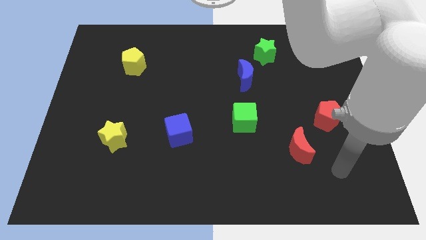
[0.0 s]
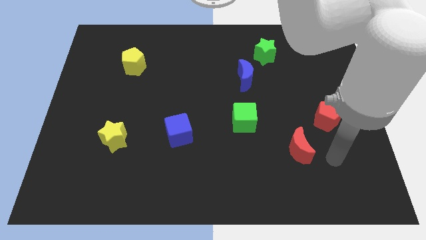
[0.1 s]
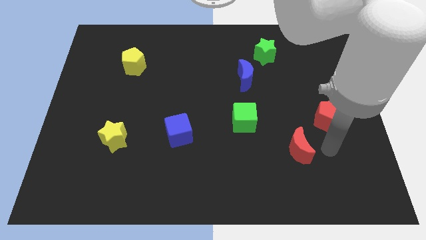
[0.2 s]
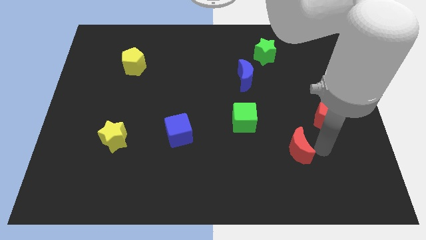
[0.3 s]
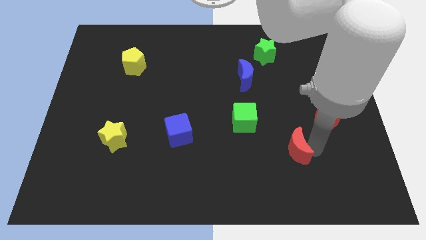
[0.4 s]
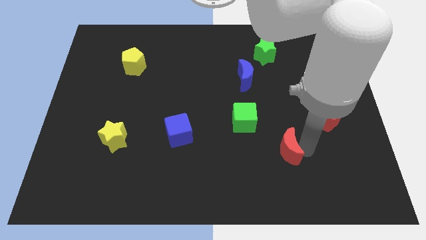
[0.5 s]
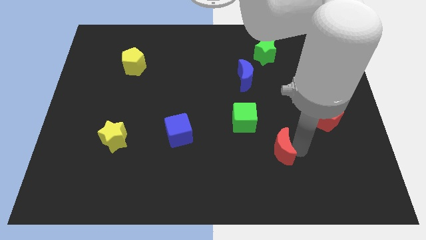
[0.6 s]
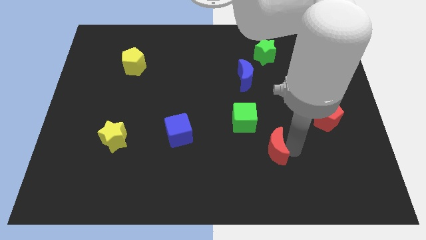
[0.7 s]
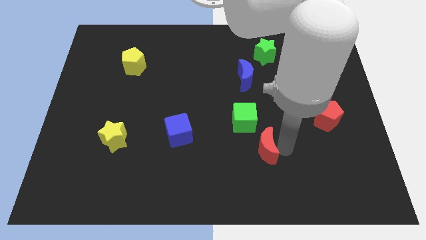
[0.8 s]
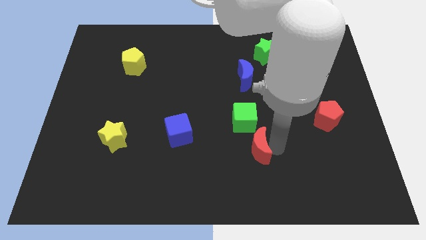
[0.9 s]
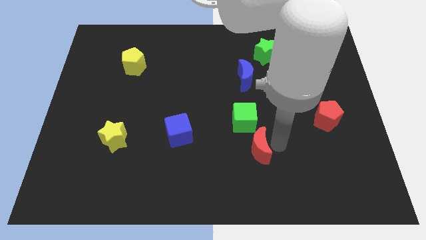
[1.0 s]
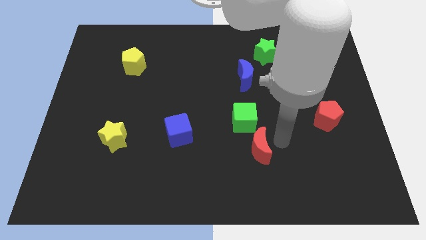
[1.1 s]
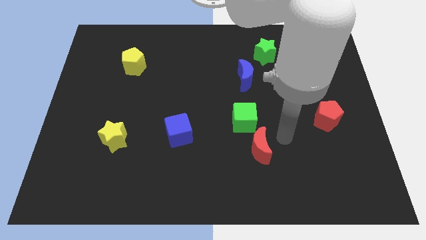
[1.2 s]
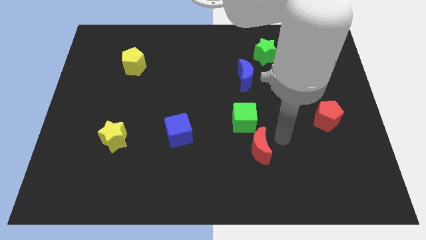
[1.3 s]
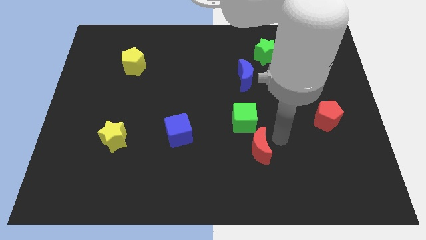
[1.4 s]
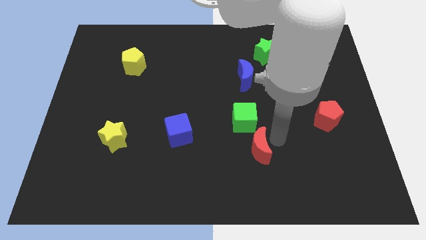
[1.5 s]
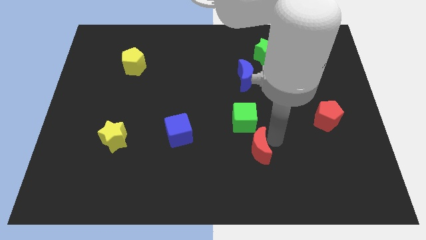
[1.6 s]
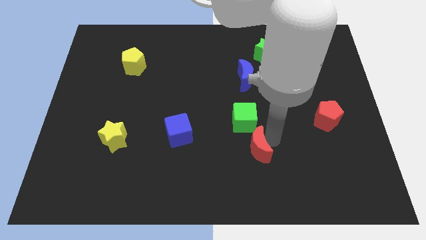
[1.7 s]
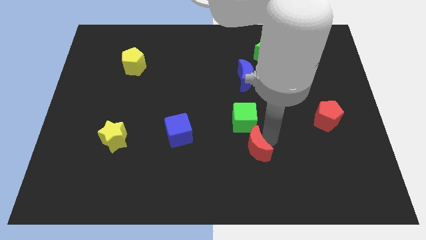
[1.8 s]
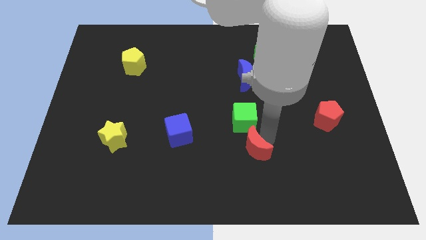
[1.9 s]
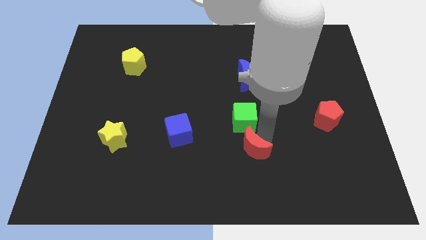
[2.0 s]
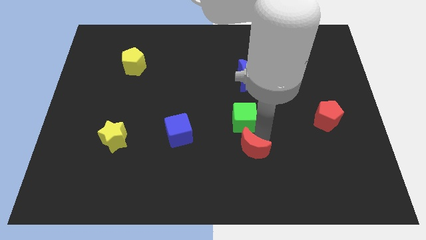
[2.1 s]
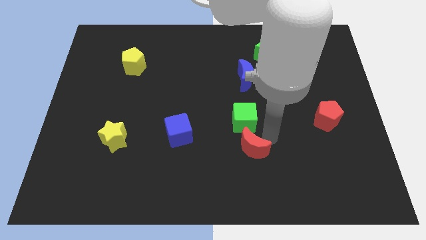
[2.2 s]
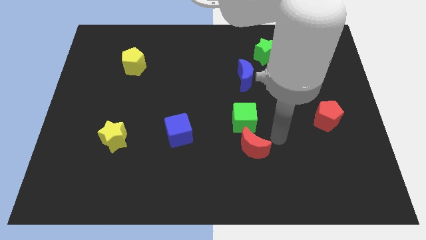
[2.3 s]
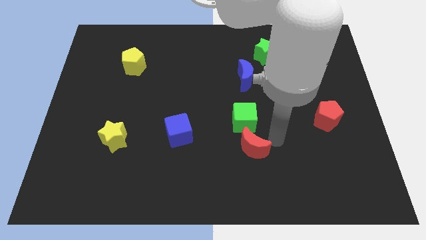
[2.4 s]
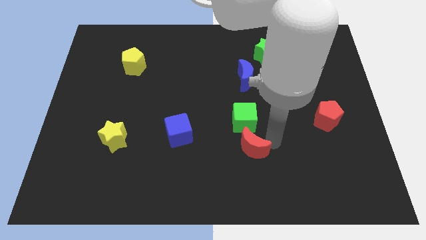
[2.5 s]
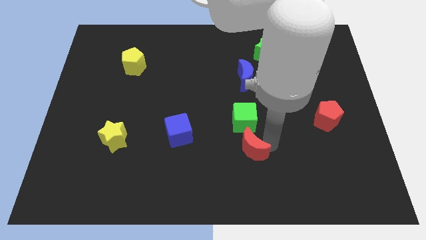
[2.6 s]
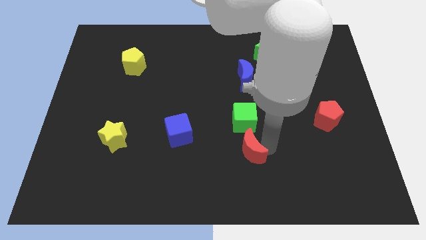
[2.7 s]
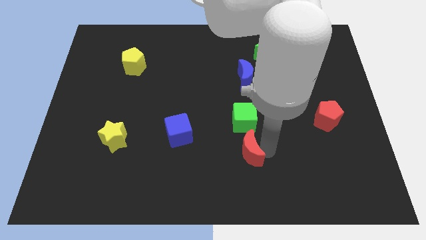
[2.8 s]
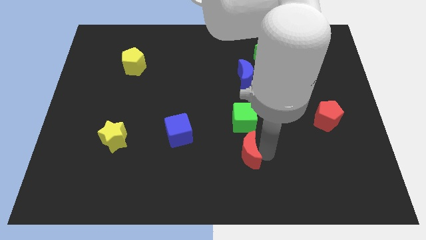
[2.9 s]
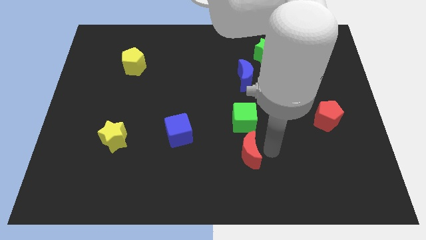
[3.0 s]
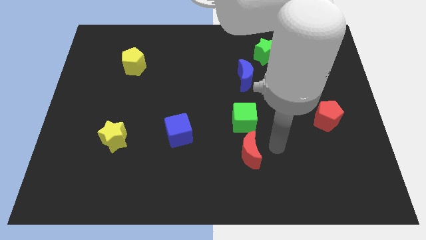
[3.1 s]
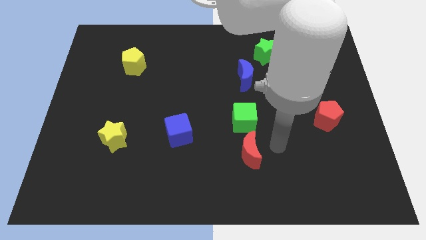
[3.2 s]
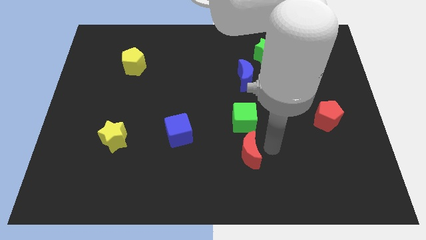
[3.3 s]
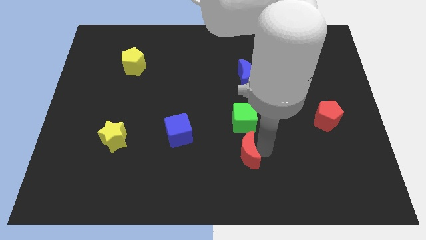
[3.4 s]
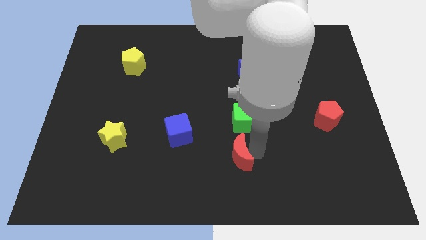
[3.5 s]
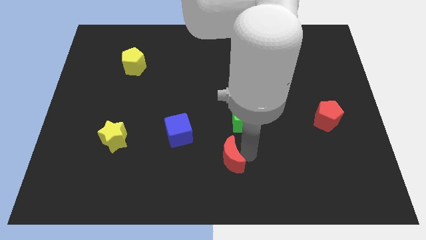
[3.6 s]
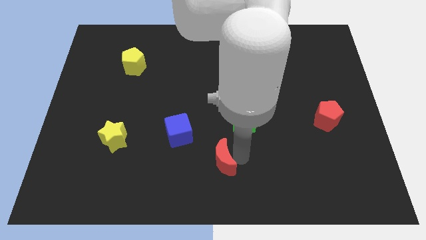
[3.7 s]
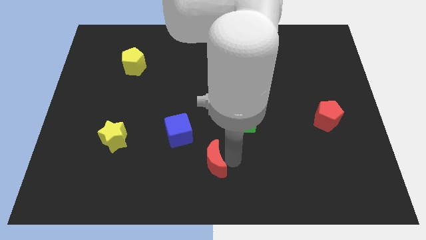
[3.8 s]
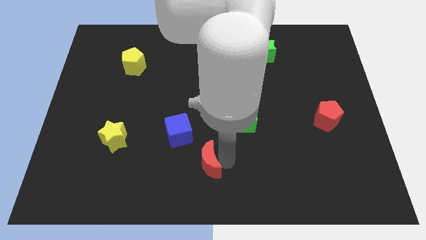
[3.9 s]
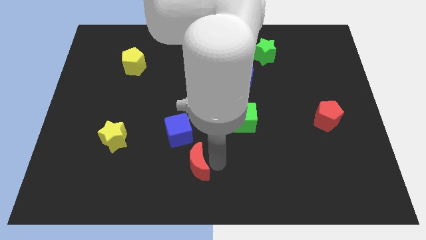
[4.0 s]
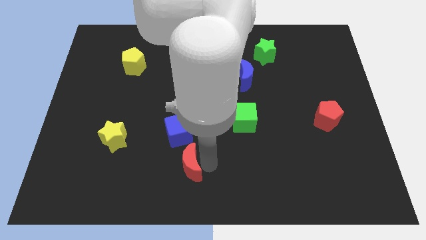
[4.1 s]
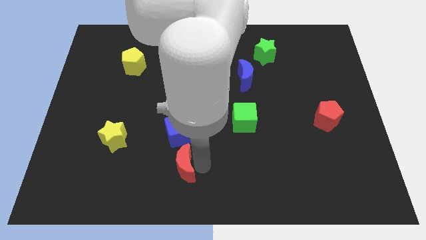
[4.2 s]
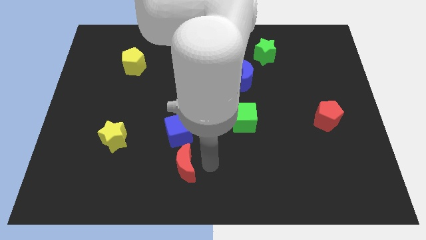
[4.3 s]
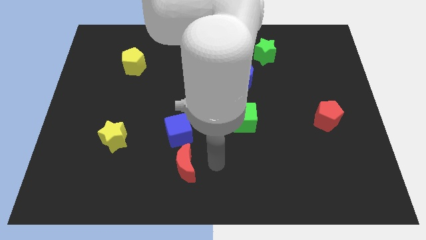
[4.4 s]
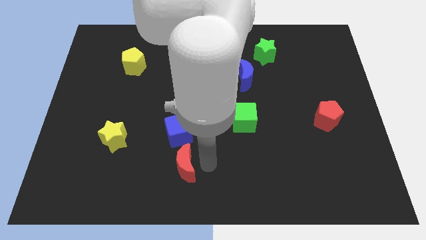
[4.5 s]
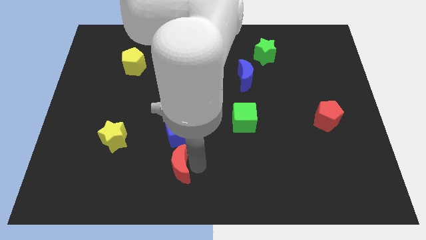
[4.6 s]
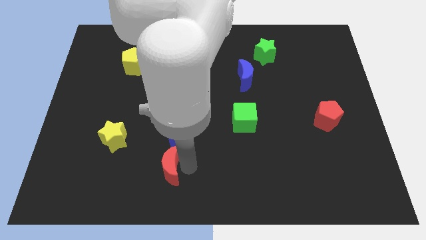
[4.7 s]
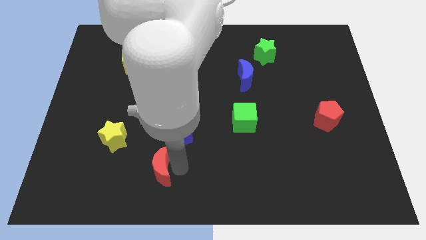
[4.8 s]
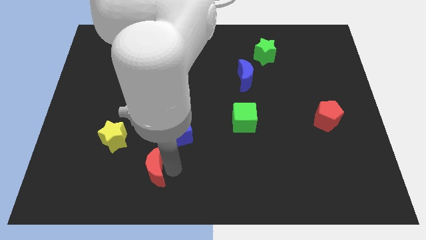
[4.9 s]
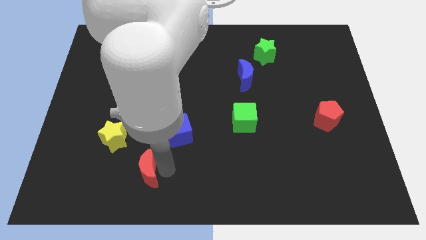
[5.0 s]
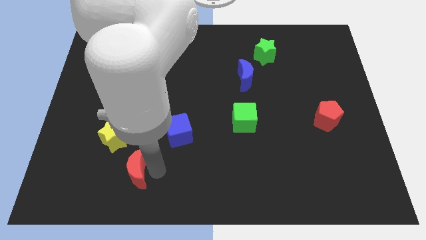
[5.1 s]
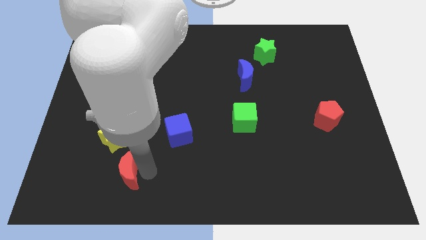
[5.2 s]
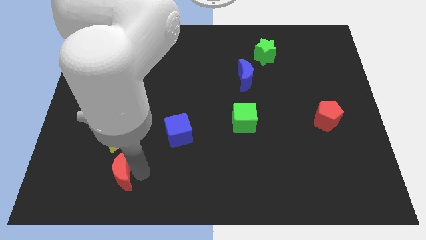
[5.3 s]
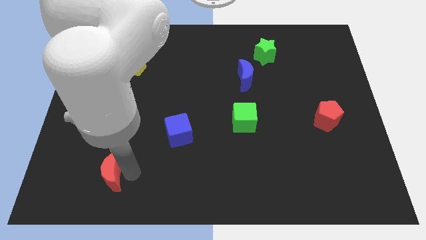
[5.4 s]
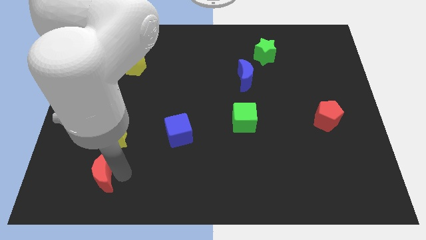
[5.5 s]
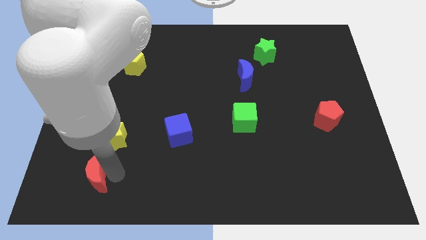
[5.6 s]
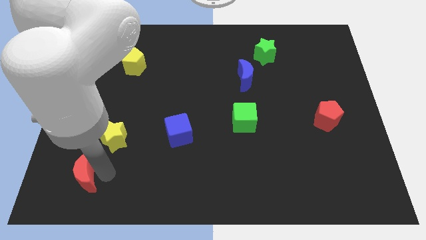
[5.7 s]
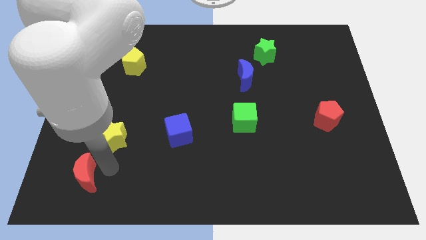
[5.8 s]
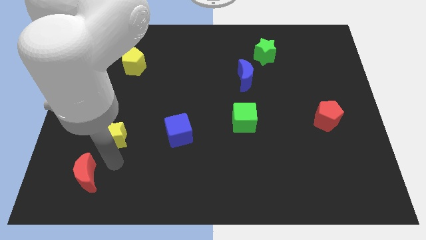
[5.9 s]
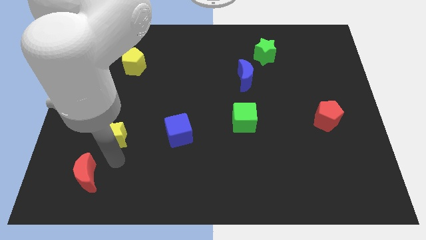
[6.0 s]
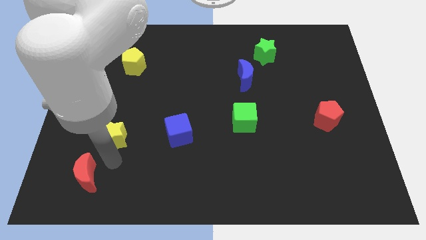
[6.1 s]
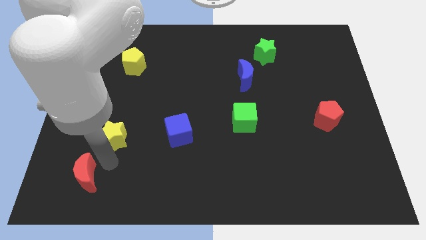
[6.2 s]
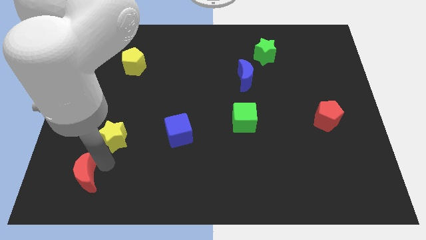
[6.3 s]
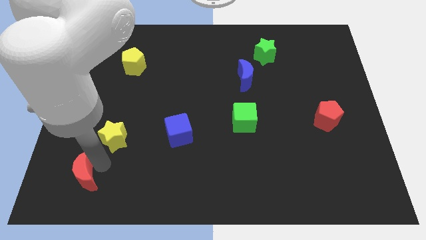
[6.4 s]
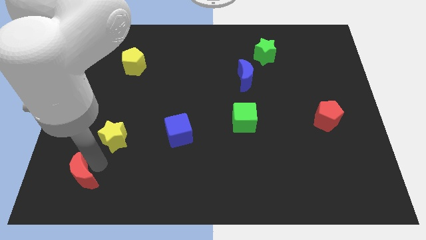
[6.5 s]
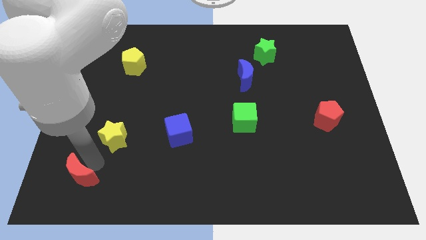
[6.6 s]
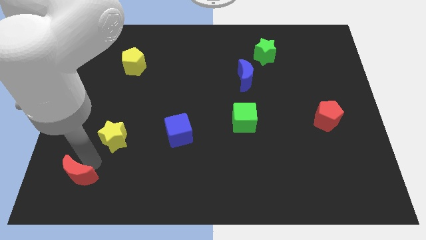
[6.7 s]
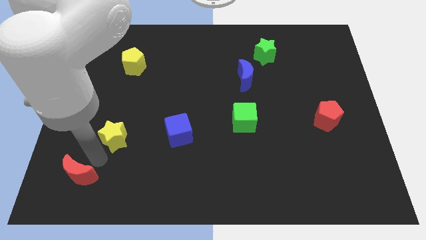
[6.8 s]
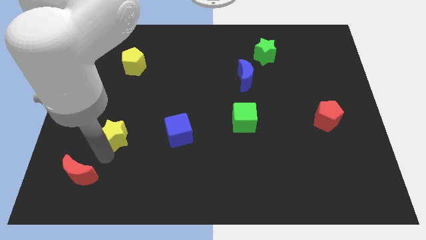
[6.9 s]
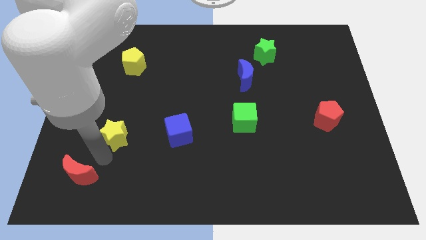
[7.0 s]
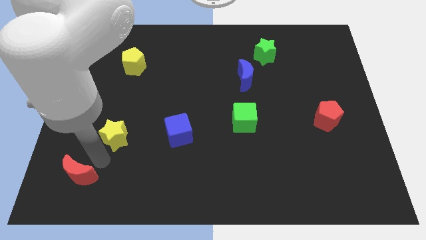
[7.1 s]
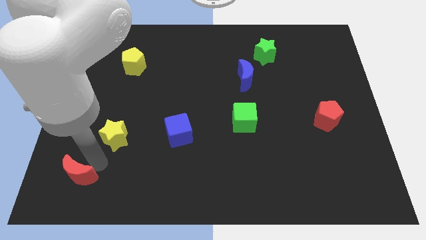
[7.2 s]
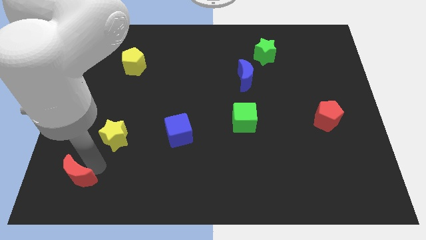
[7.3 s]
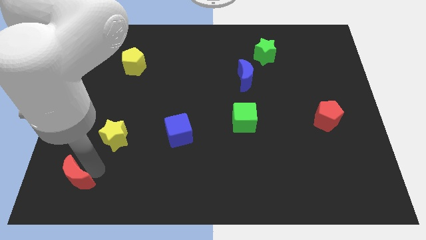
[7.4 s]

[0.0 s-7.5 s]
move the red moon to the lower left corner
